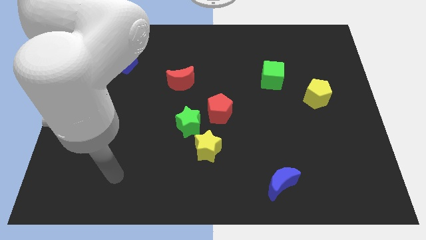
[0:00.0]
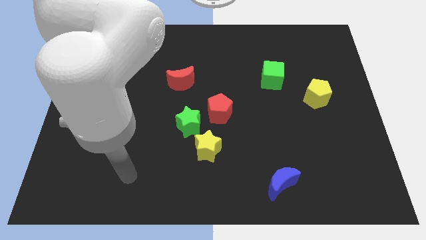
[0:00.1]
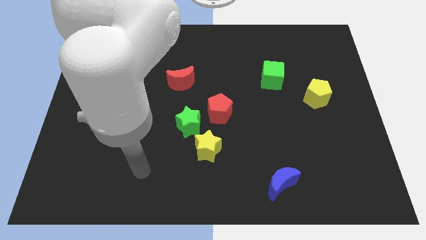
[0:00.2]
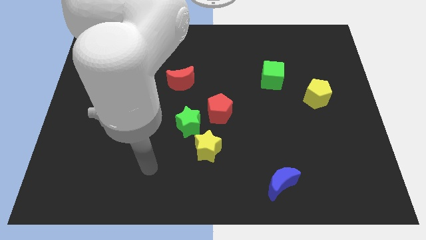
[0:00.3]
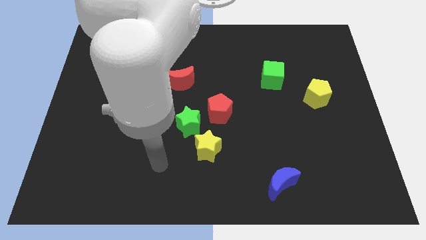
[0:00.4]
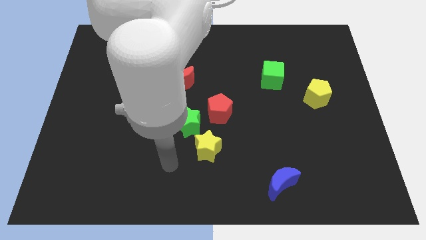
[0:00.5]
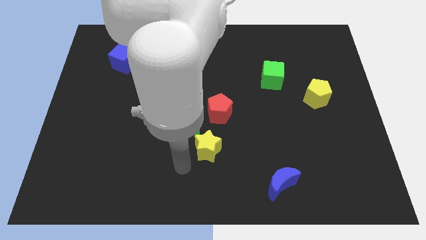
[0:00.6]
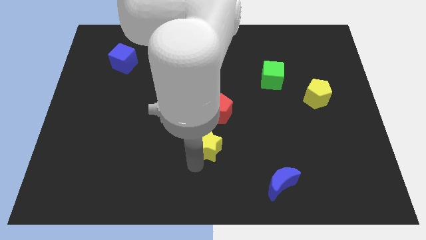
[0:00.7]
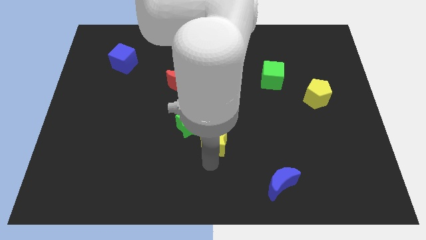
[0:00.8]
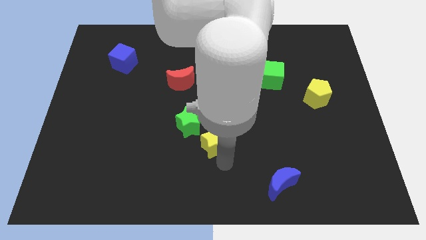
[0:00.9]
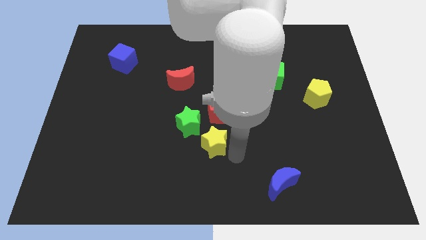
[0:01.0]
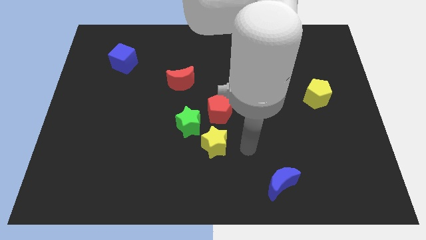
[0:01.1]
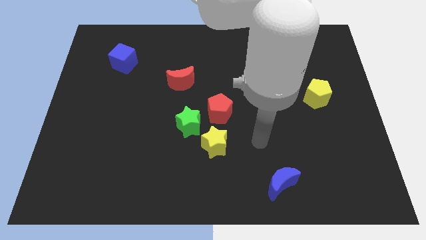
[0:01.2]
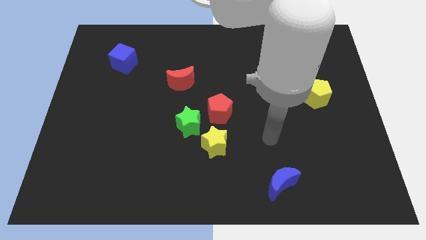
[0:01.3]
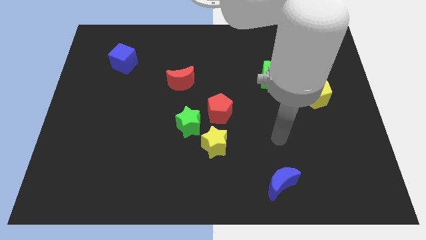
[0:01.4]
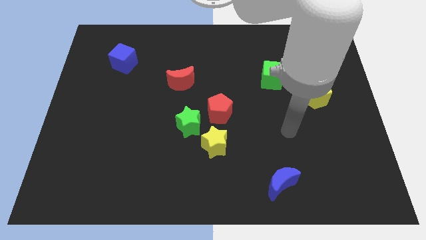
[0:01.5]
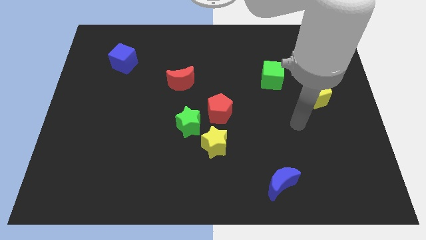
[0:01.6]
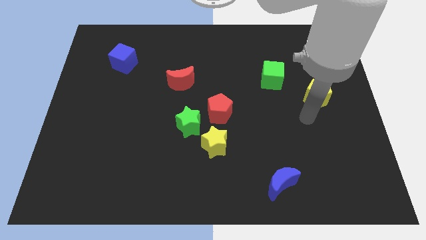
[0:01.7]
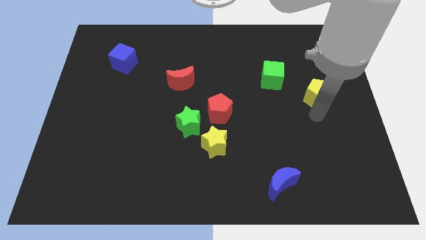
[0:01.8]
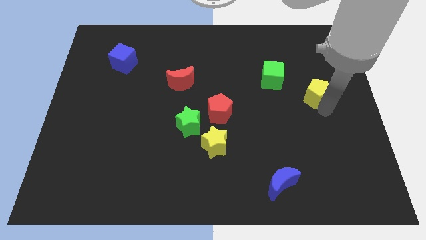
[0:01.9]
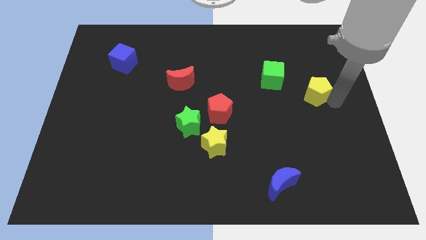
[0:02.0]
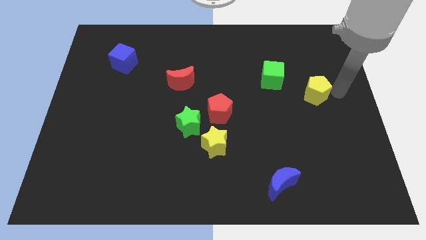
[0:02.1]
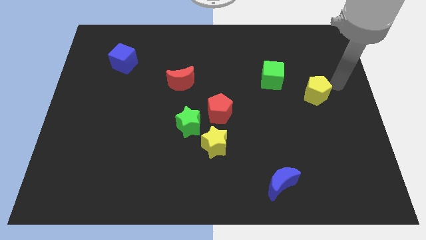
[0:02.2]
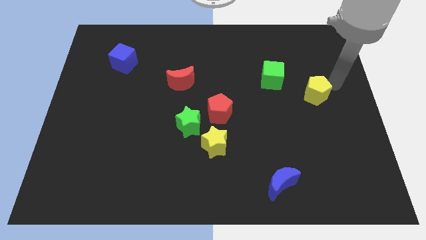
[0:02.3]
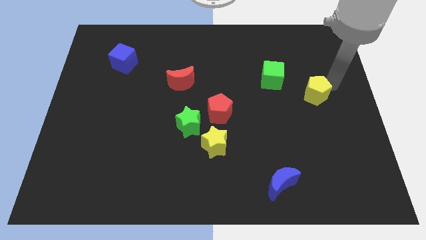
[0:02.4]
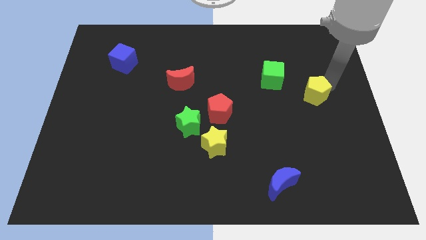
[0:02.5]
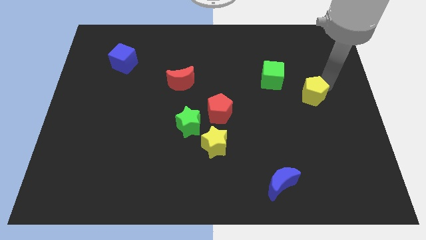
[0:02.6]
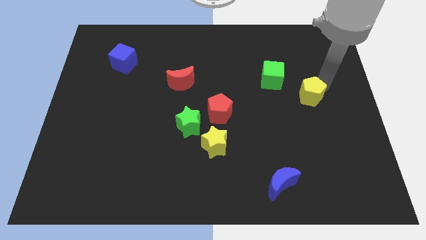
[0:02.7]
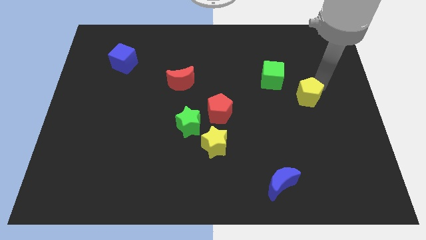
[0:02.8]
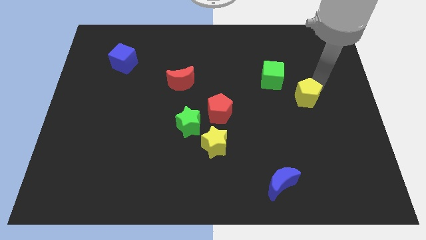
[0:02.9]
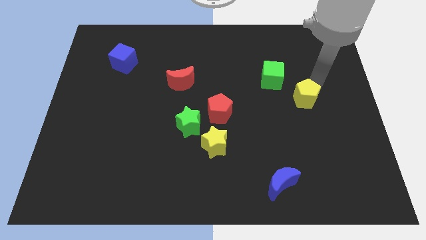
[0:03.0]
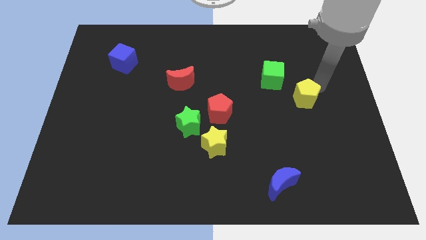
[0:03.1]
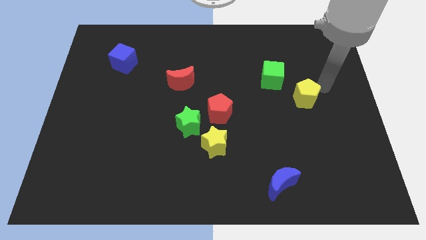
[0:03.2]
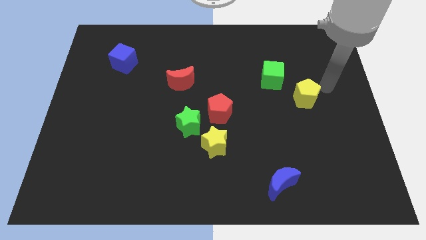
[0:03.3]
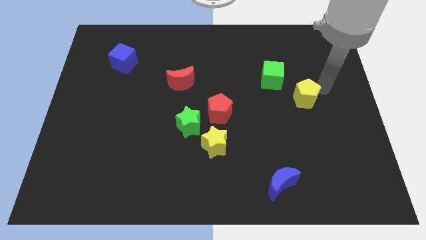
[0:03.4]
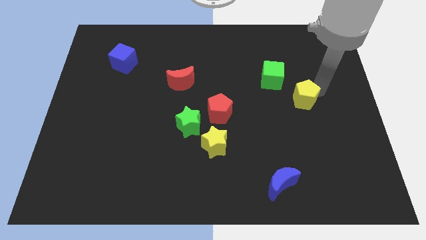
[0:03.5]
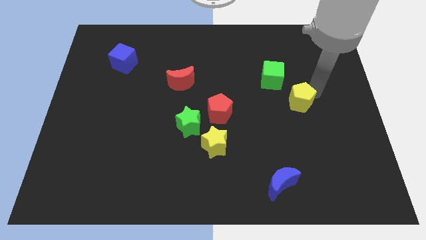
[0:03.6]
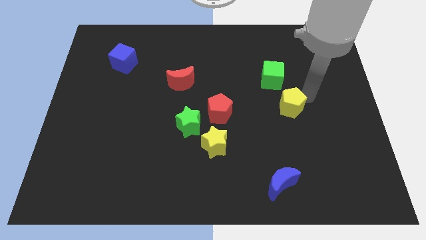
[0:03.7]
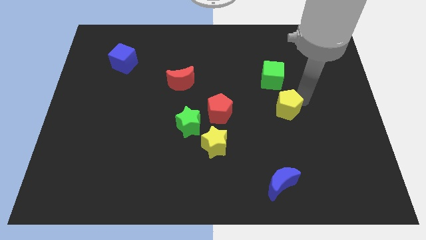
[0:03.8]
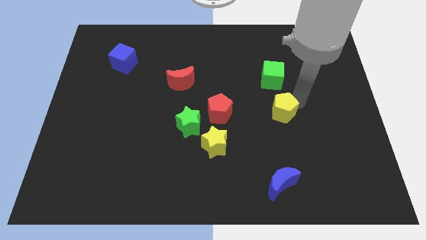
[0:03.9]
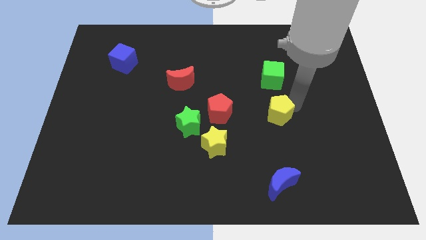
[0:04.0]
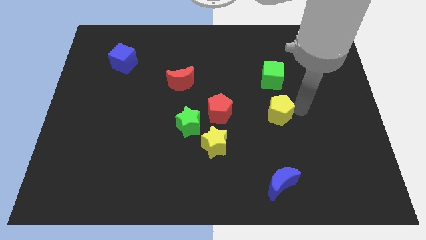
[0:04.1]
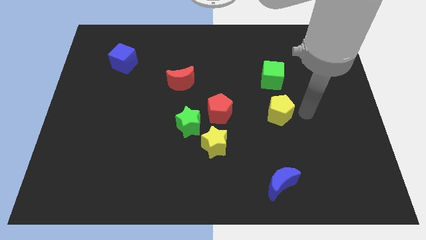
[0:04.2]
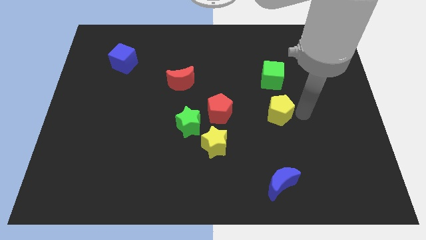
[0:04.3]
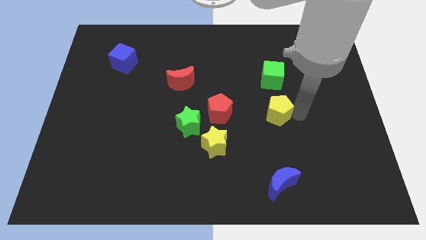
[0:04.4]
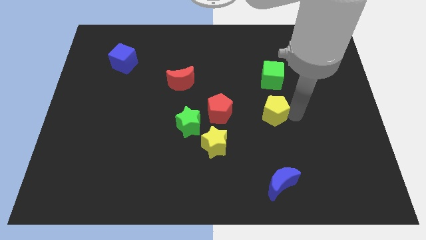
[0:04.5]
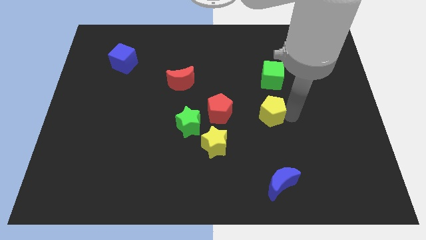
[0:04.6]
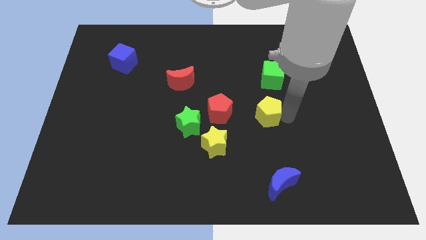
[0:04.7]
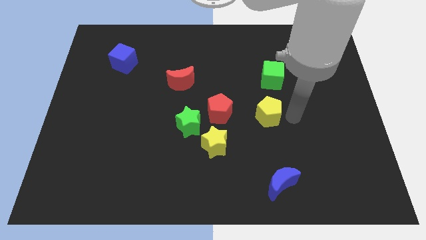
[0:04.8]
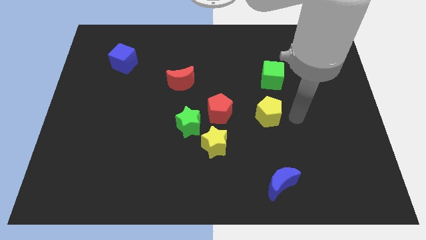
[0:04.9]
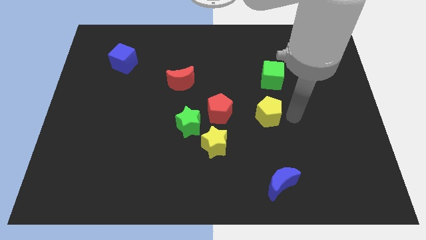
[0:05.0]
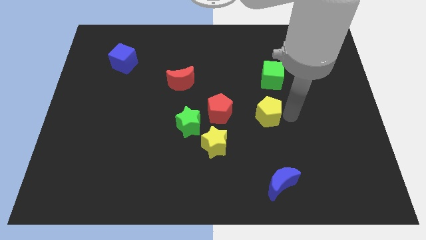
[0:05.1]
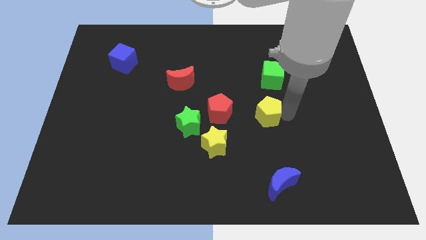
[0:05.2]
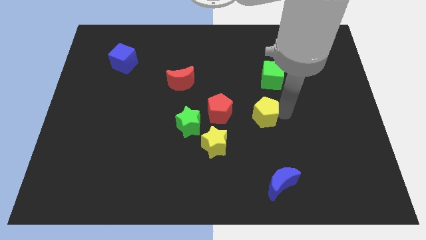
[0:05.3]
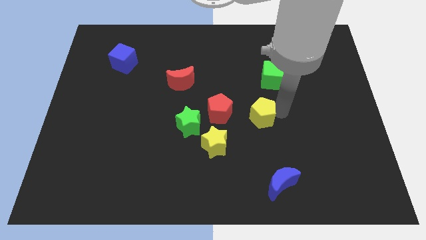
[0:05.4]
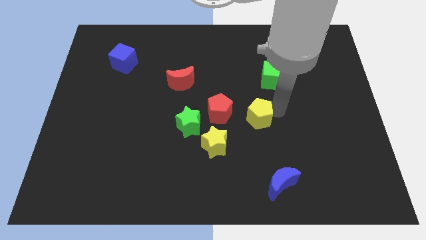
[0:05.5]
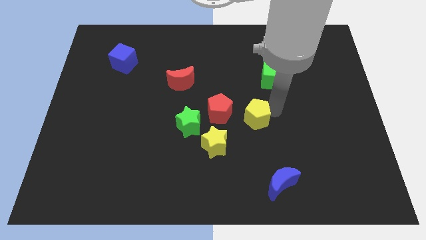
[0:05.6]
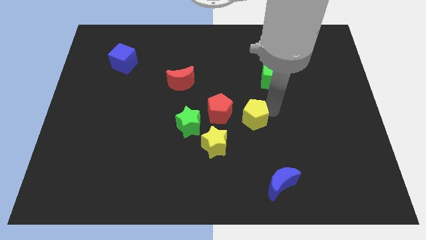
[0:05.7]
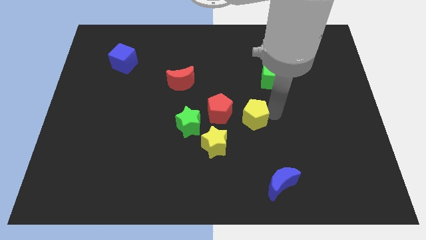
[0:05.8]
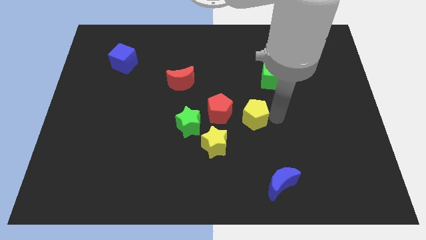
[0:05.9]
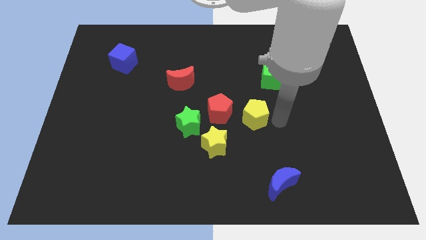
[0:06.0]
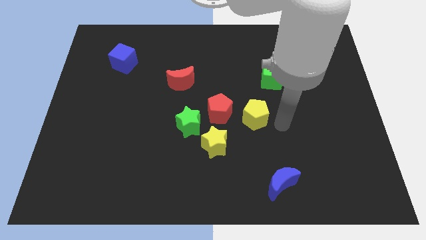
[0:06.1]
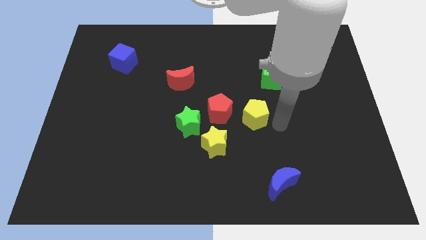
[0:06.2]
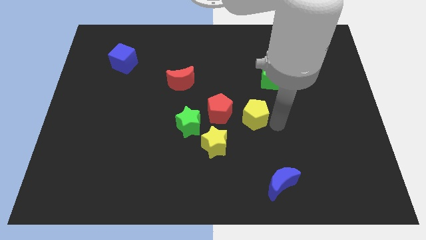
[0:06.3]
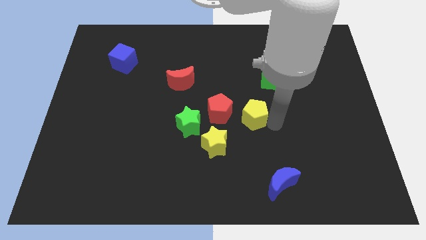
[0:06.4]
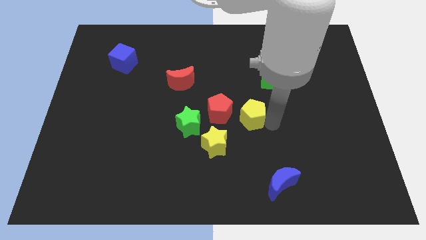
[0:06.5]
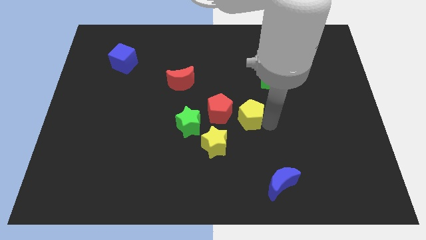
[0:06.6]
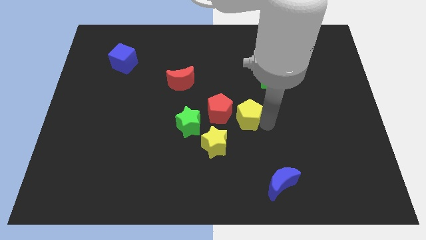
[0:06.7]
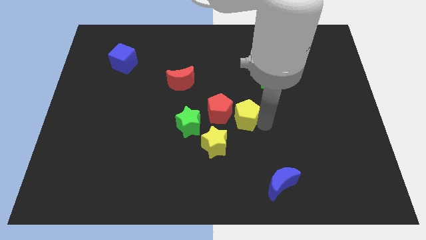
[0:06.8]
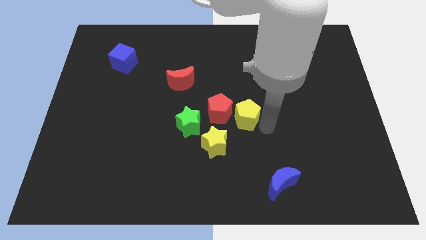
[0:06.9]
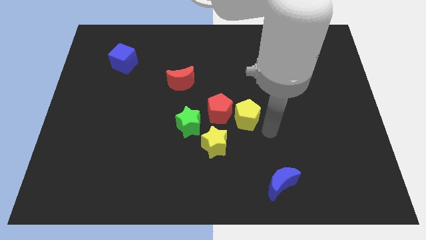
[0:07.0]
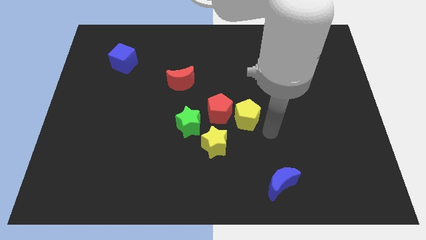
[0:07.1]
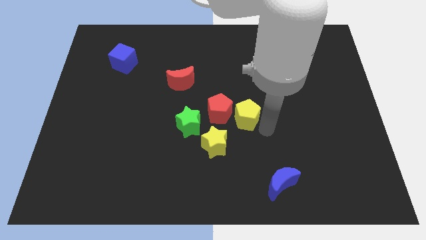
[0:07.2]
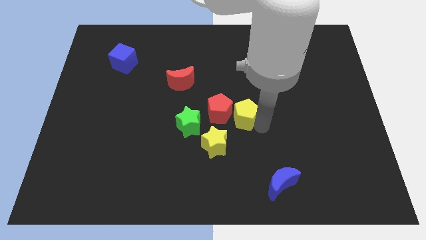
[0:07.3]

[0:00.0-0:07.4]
move the yellow pentagon to the red pentagon
